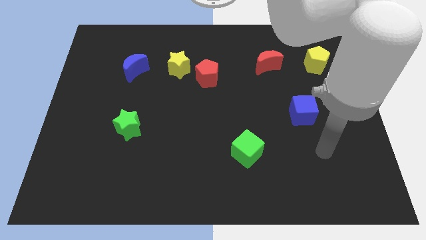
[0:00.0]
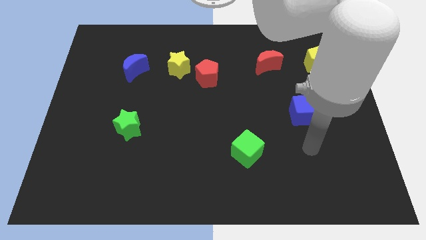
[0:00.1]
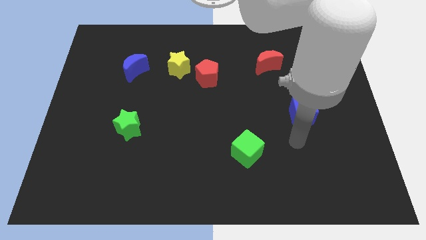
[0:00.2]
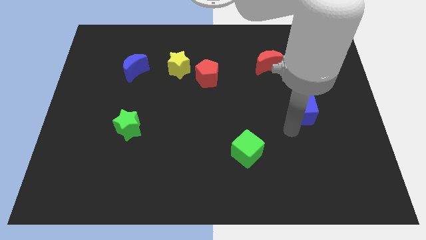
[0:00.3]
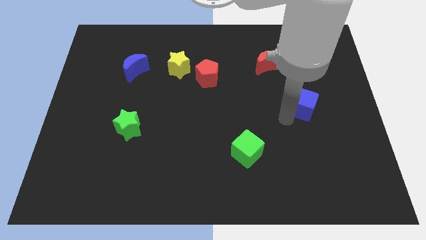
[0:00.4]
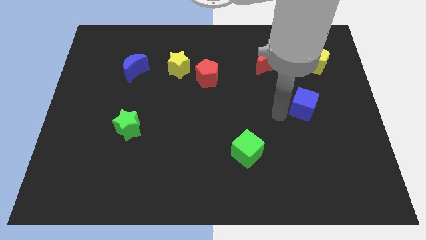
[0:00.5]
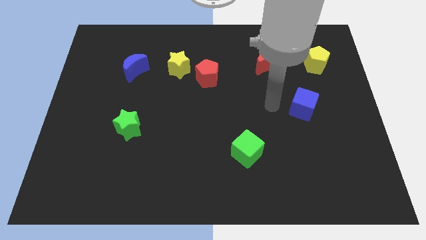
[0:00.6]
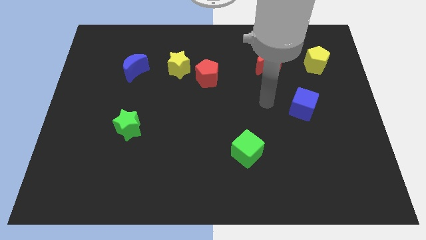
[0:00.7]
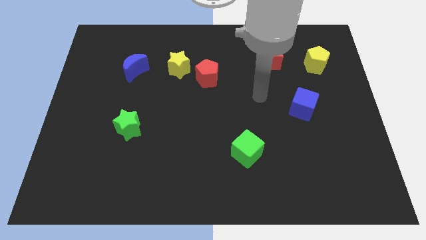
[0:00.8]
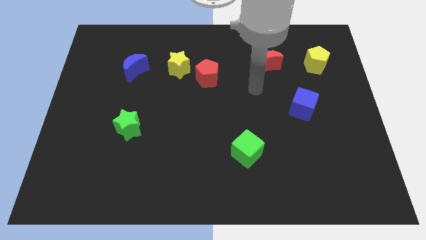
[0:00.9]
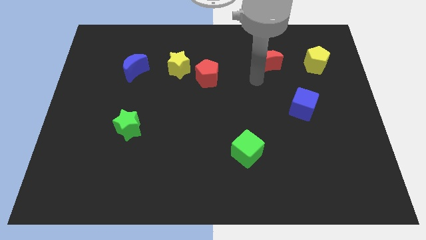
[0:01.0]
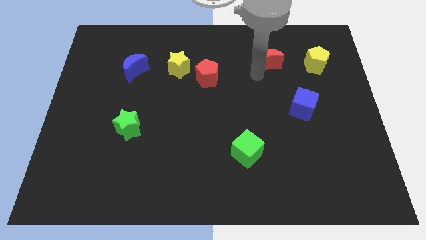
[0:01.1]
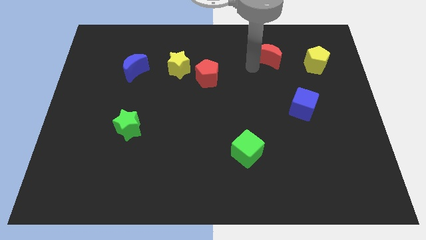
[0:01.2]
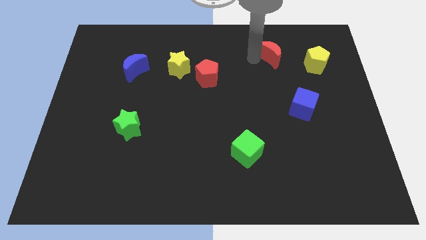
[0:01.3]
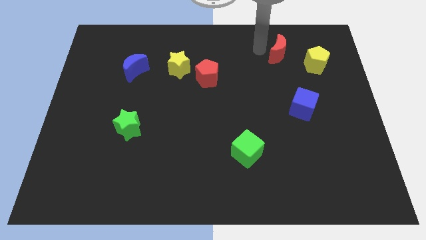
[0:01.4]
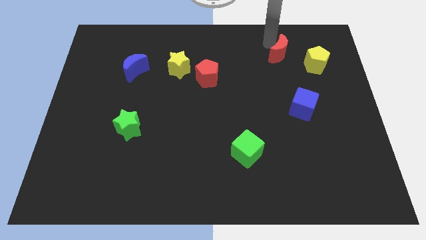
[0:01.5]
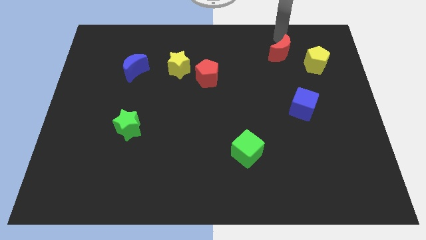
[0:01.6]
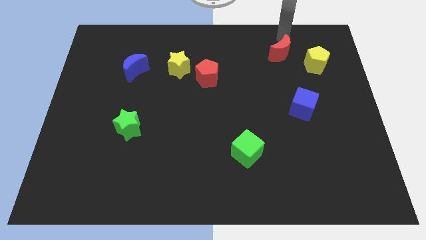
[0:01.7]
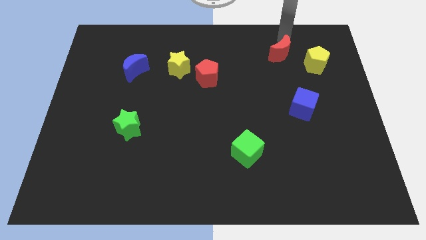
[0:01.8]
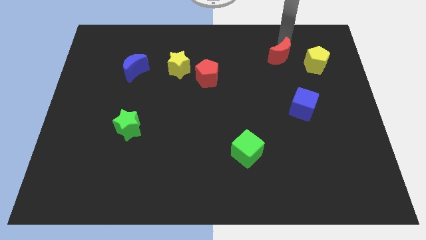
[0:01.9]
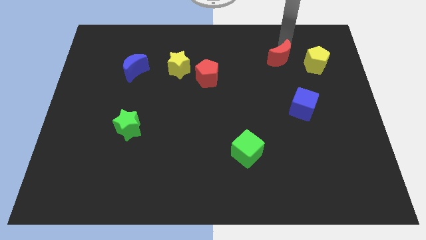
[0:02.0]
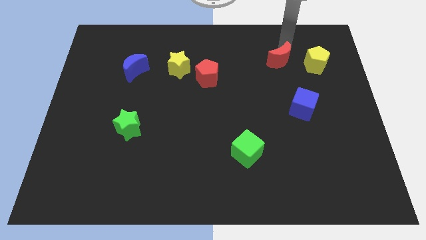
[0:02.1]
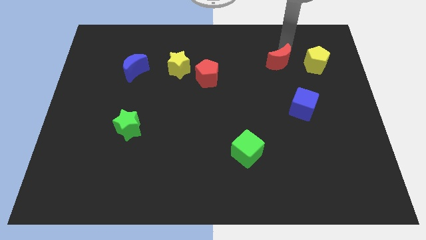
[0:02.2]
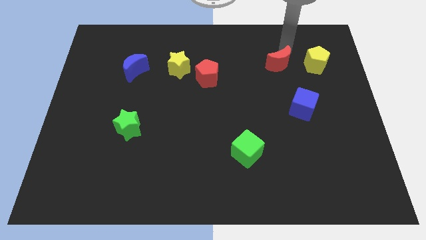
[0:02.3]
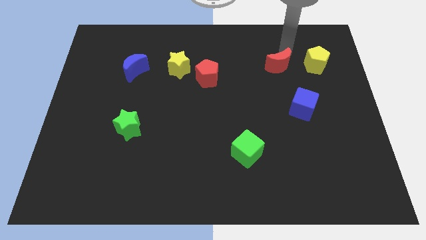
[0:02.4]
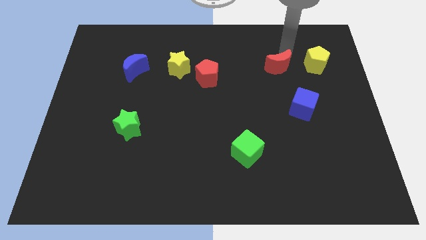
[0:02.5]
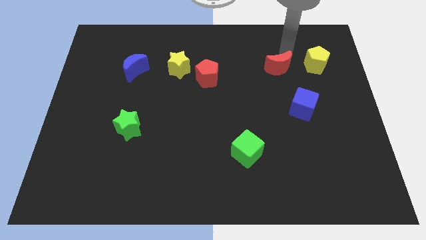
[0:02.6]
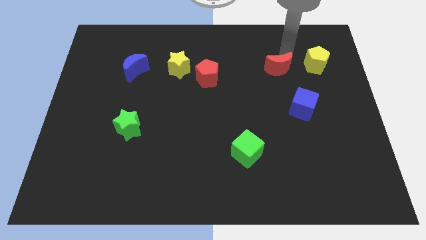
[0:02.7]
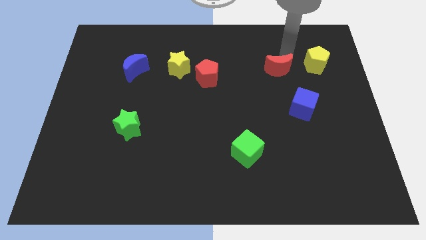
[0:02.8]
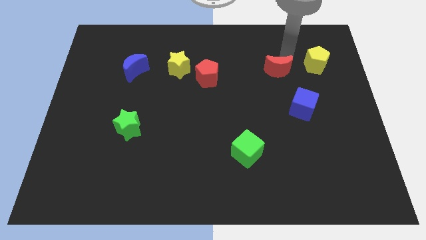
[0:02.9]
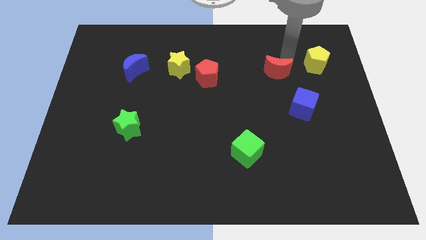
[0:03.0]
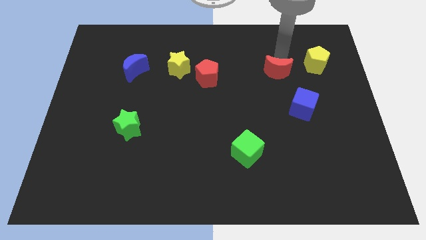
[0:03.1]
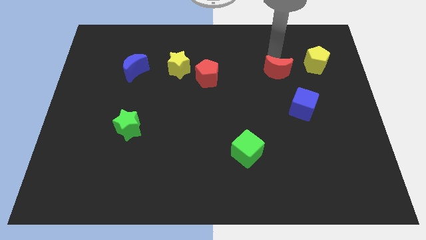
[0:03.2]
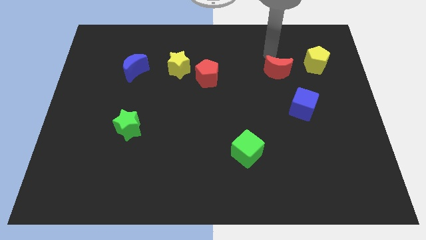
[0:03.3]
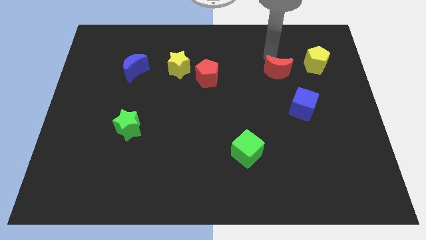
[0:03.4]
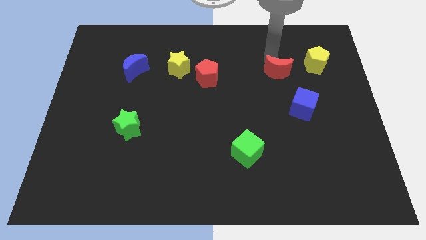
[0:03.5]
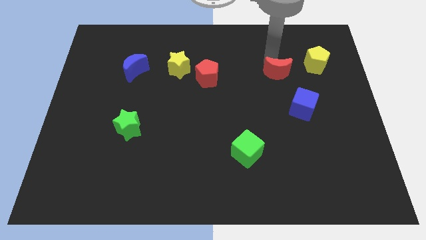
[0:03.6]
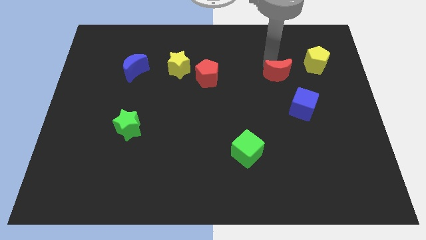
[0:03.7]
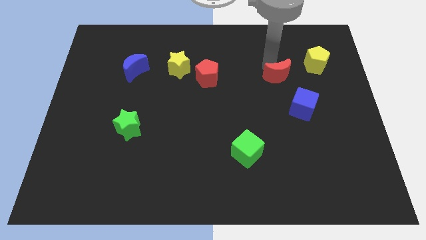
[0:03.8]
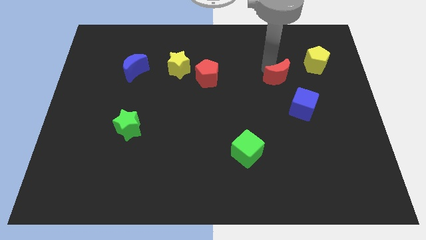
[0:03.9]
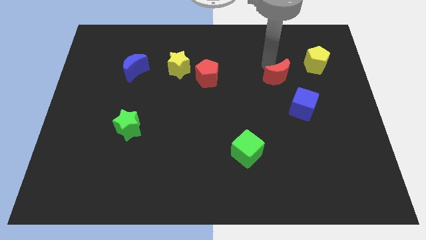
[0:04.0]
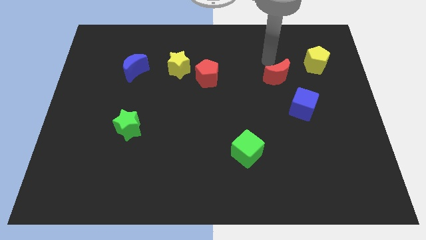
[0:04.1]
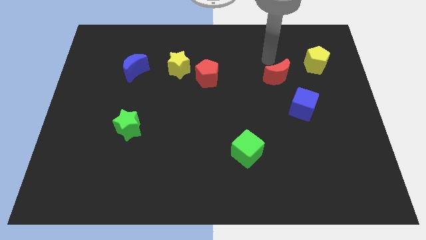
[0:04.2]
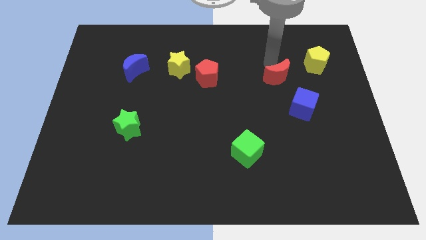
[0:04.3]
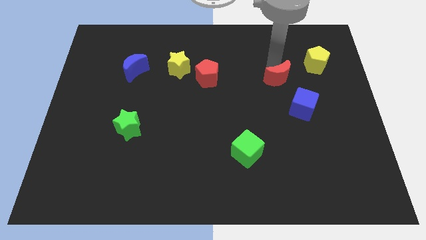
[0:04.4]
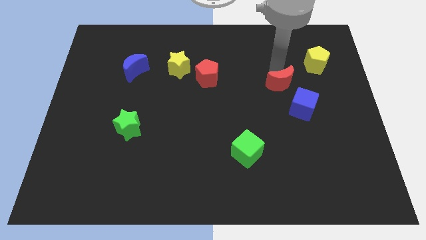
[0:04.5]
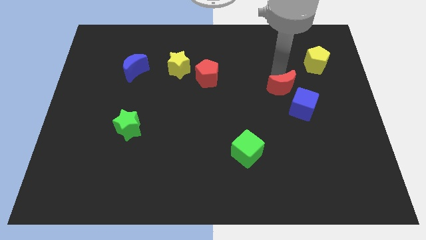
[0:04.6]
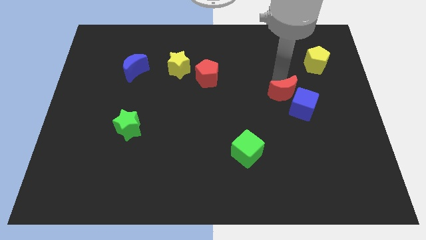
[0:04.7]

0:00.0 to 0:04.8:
slide the red moon to the blue cube

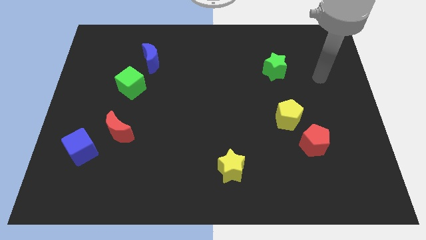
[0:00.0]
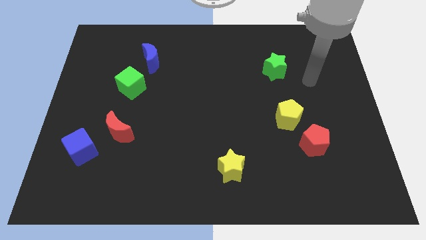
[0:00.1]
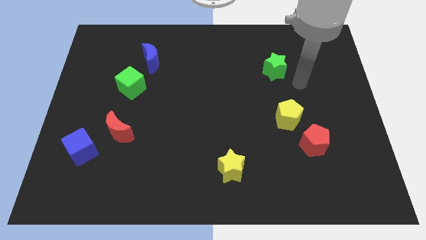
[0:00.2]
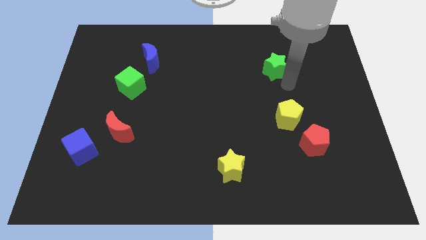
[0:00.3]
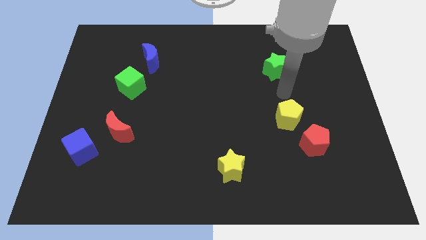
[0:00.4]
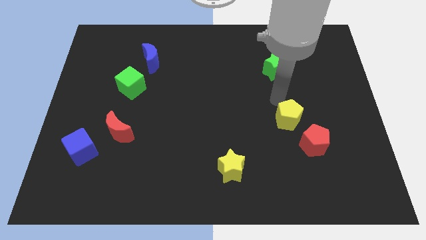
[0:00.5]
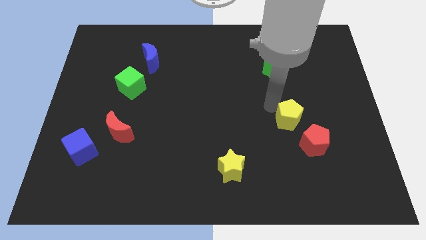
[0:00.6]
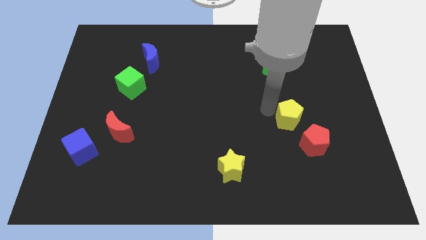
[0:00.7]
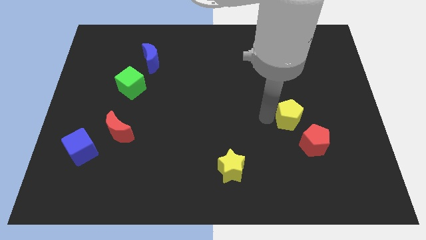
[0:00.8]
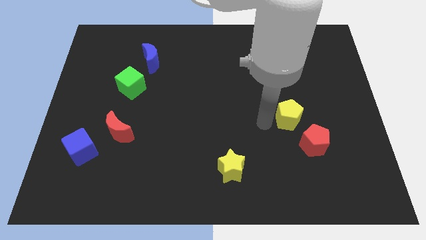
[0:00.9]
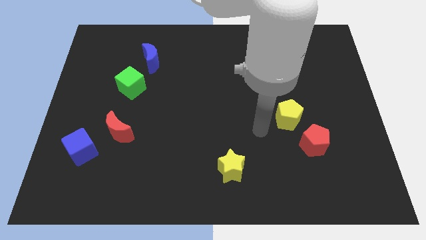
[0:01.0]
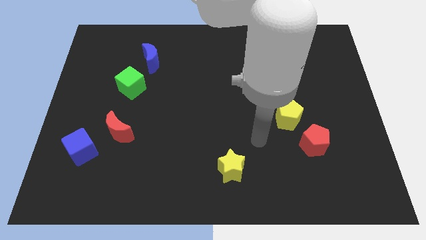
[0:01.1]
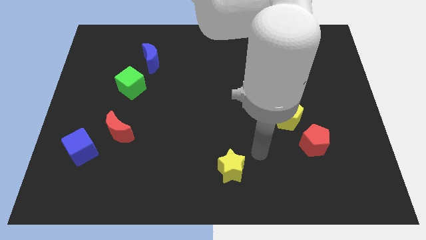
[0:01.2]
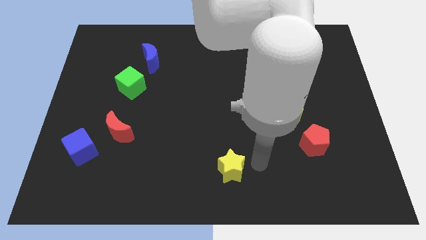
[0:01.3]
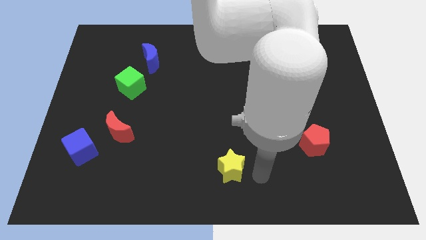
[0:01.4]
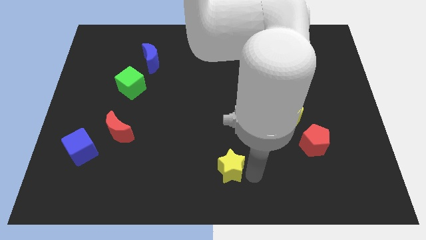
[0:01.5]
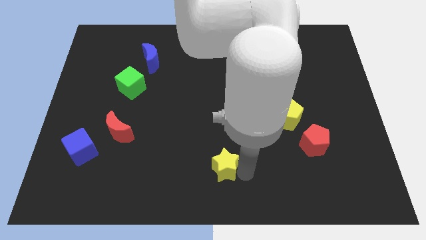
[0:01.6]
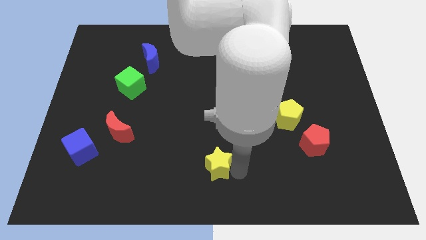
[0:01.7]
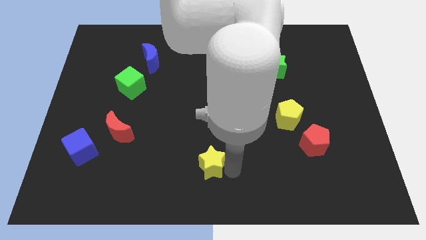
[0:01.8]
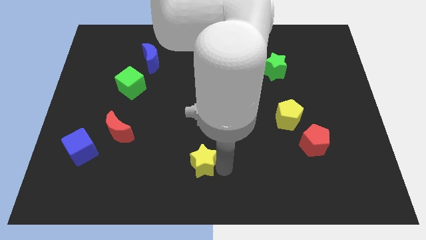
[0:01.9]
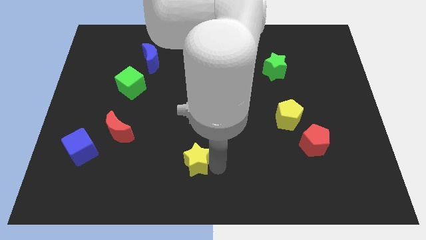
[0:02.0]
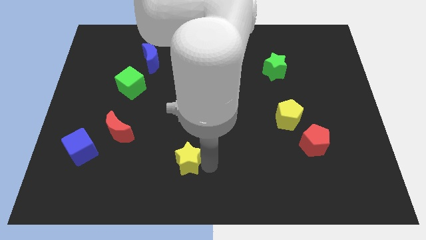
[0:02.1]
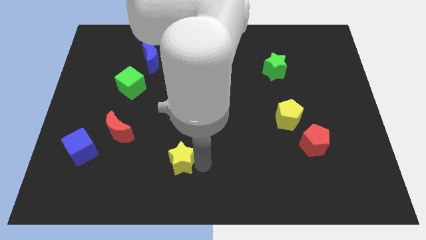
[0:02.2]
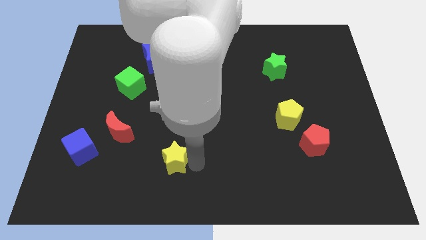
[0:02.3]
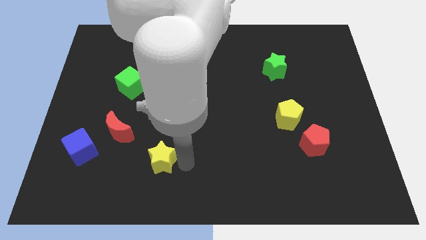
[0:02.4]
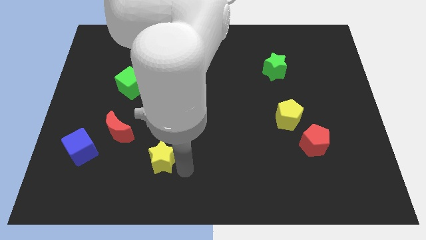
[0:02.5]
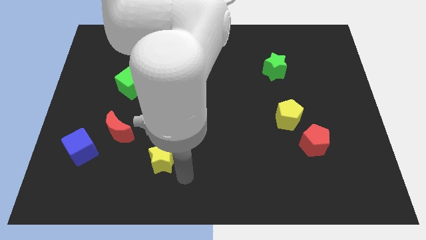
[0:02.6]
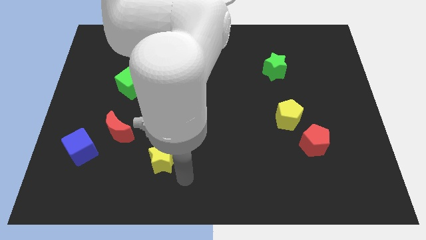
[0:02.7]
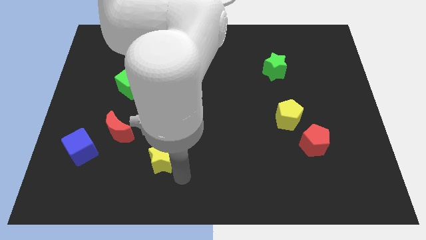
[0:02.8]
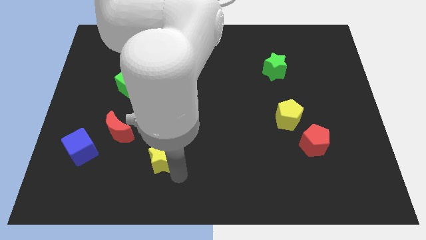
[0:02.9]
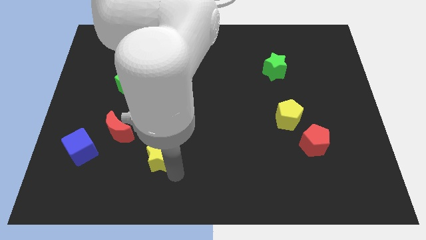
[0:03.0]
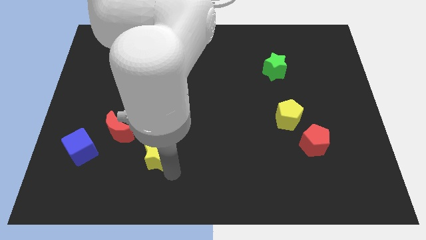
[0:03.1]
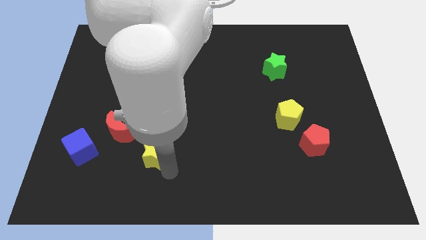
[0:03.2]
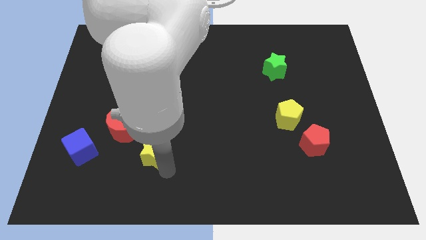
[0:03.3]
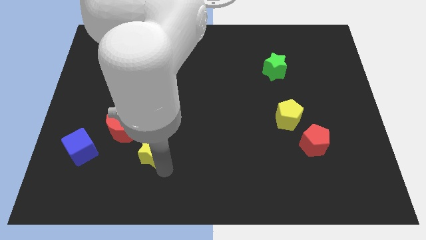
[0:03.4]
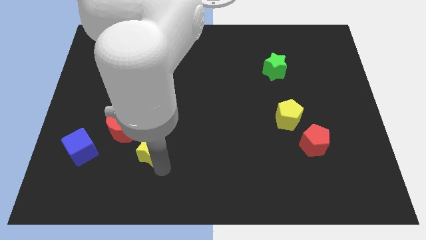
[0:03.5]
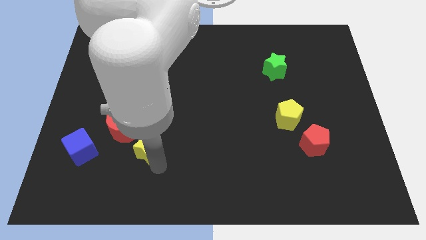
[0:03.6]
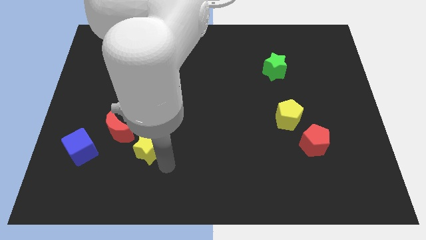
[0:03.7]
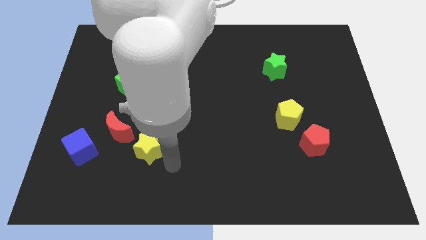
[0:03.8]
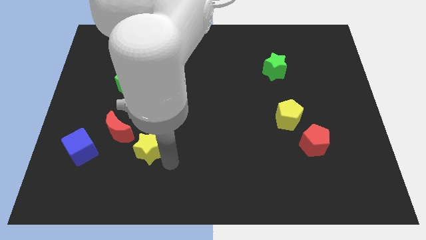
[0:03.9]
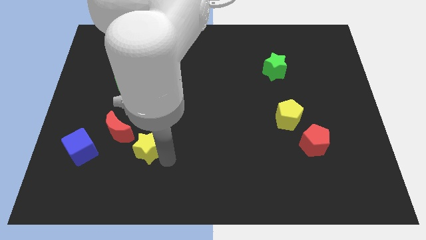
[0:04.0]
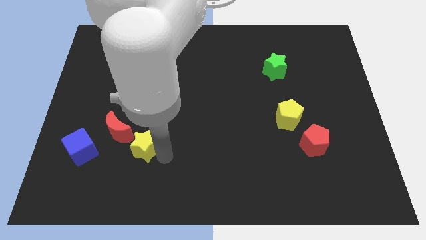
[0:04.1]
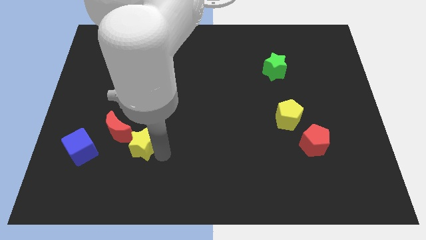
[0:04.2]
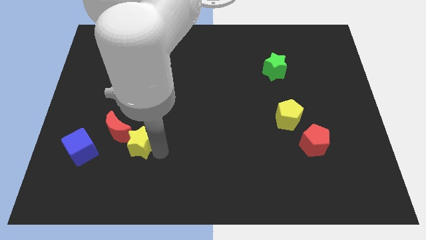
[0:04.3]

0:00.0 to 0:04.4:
put the yellow star next to the red moon
